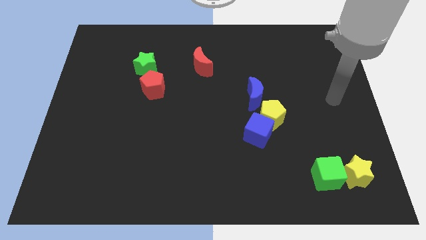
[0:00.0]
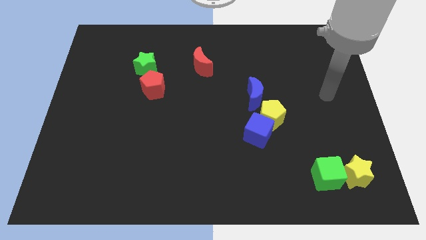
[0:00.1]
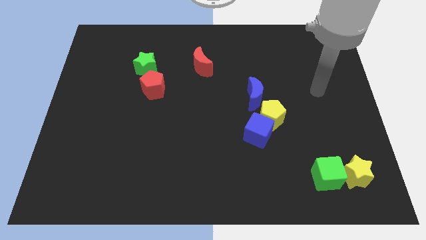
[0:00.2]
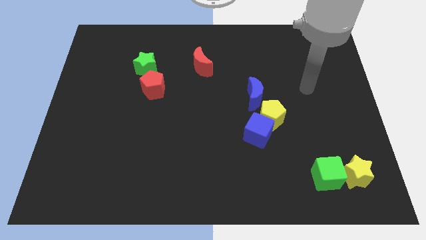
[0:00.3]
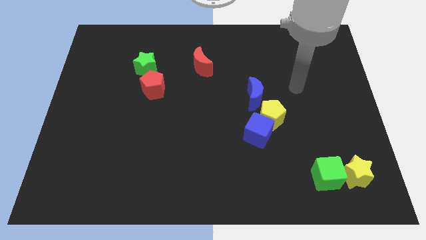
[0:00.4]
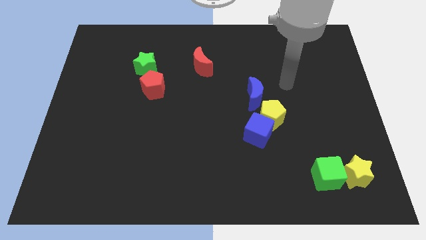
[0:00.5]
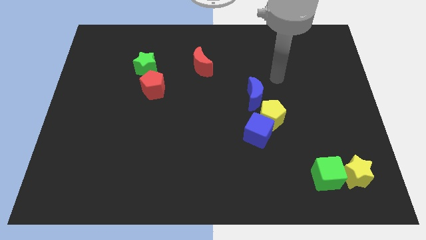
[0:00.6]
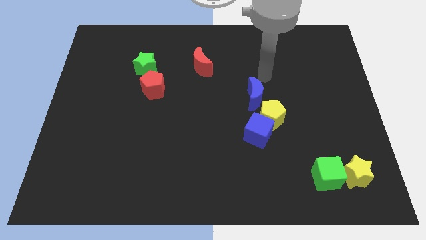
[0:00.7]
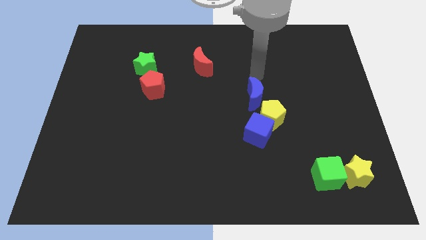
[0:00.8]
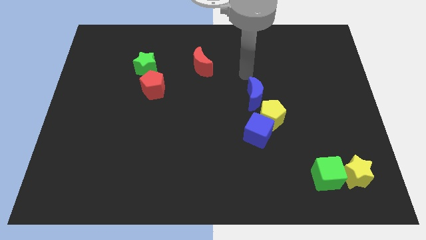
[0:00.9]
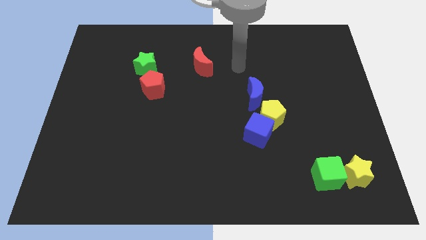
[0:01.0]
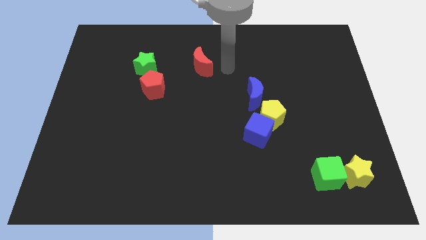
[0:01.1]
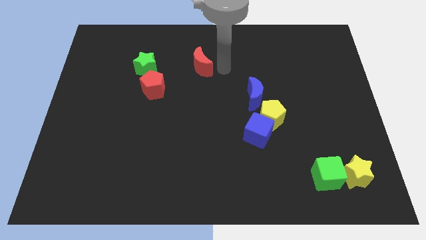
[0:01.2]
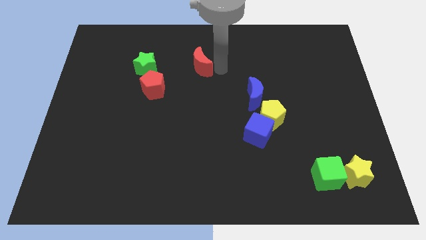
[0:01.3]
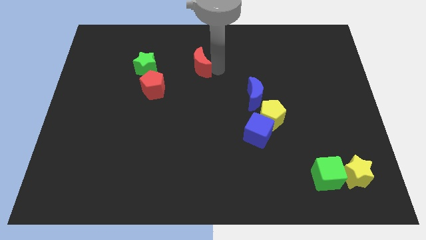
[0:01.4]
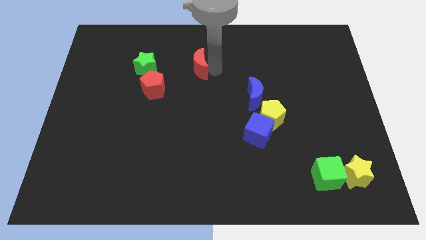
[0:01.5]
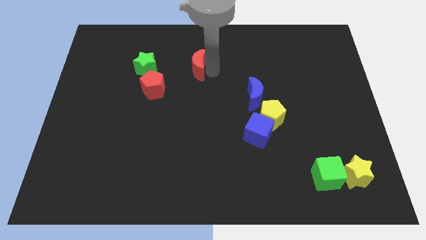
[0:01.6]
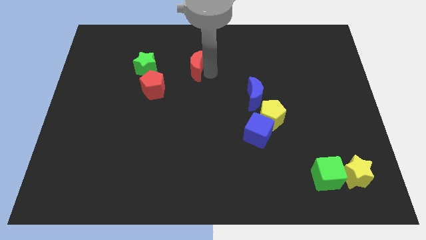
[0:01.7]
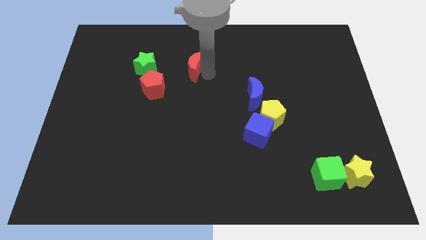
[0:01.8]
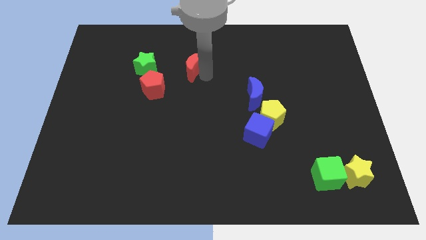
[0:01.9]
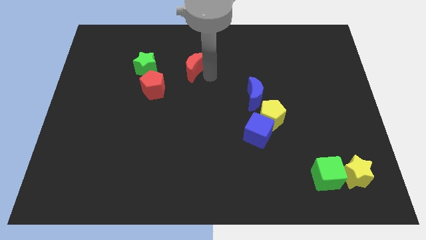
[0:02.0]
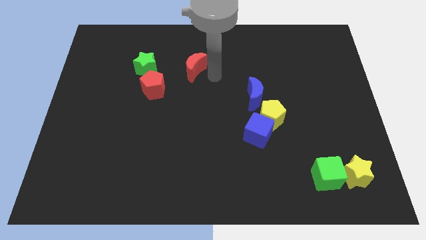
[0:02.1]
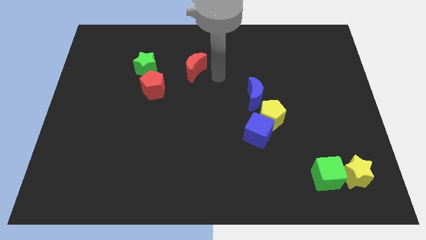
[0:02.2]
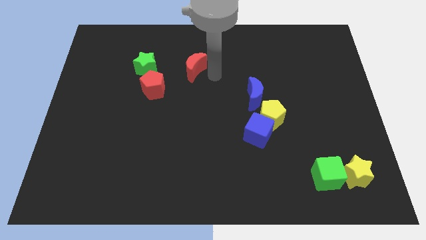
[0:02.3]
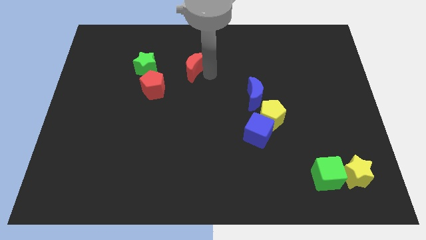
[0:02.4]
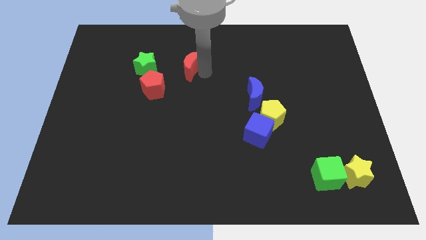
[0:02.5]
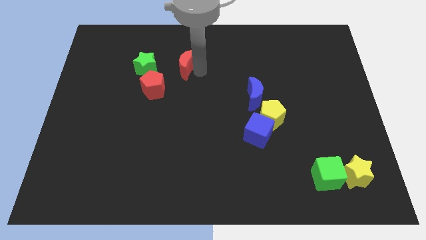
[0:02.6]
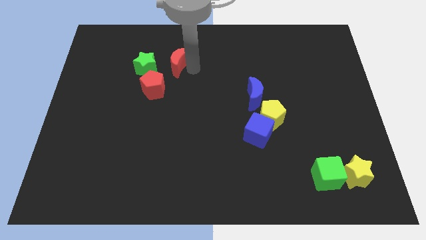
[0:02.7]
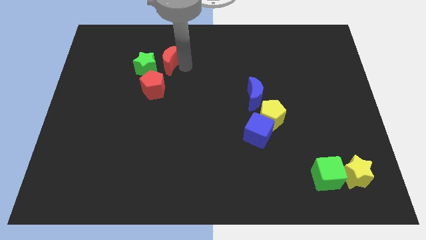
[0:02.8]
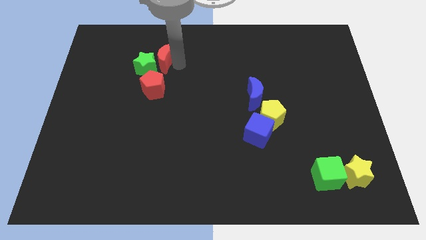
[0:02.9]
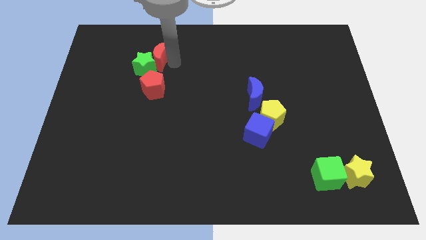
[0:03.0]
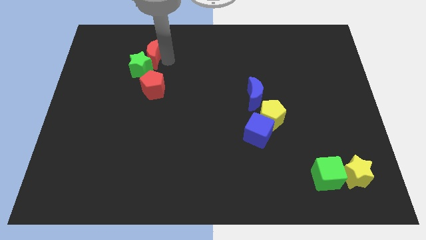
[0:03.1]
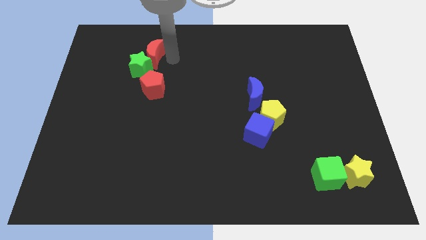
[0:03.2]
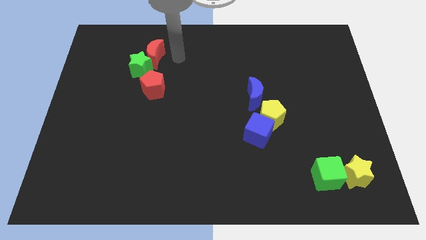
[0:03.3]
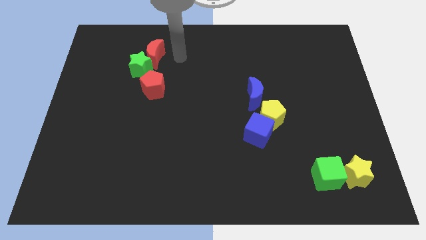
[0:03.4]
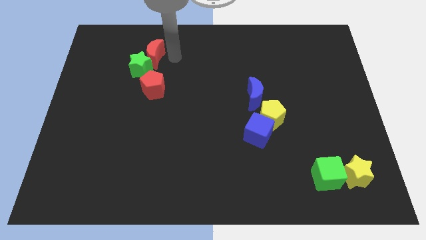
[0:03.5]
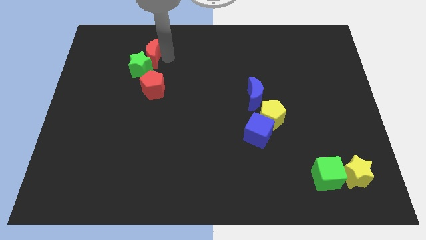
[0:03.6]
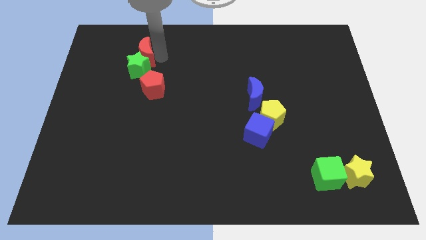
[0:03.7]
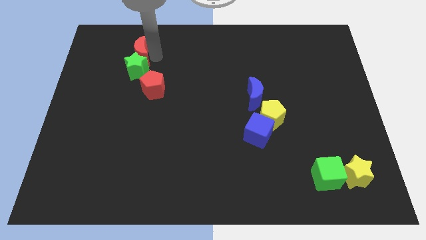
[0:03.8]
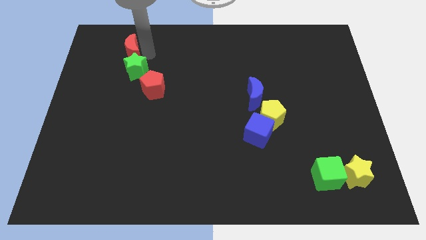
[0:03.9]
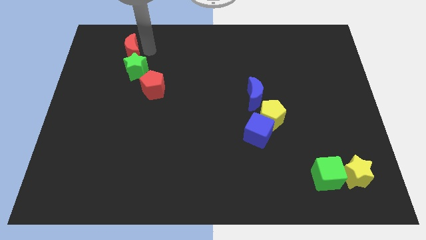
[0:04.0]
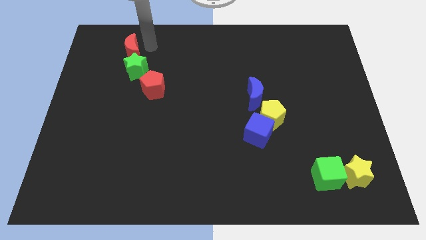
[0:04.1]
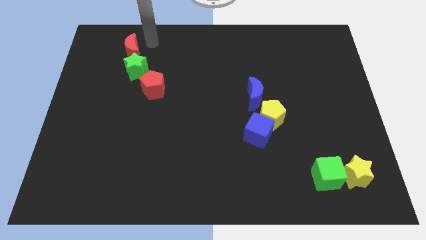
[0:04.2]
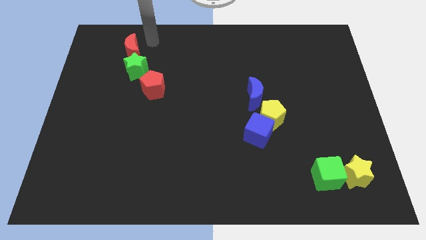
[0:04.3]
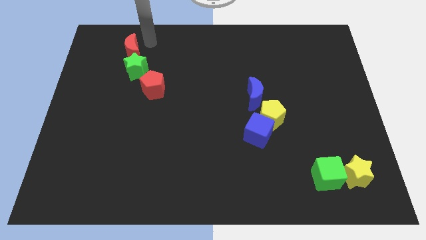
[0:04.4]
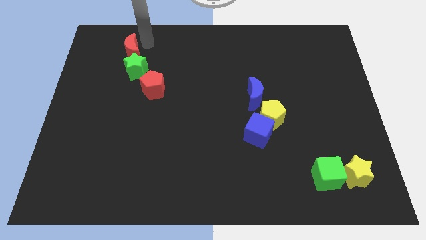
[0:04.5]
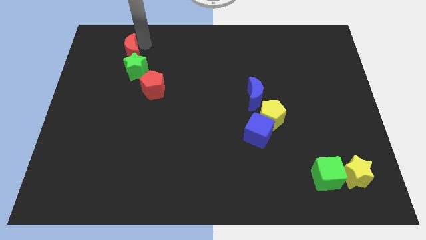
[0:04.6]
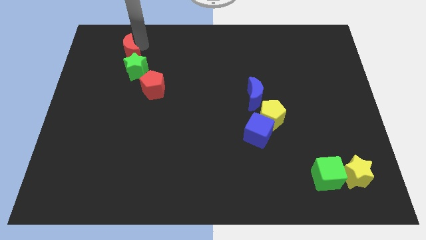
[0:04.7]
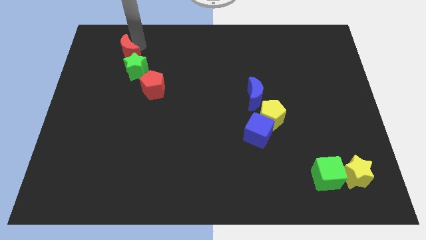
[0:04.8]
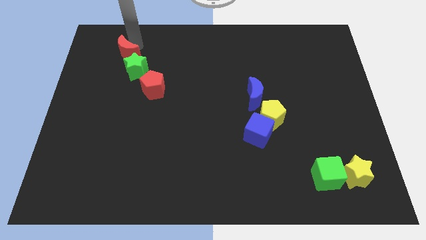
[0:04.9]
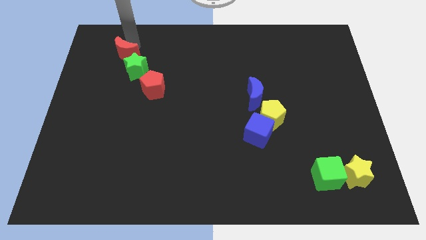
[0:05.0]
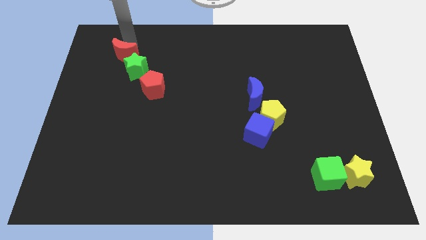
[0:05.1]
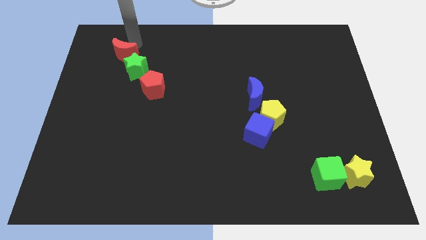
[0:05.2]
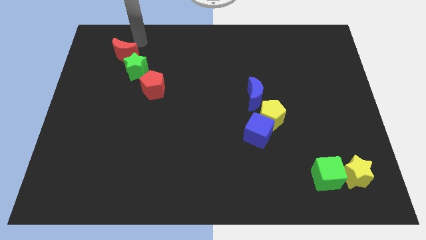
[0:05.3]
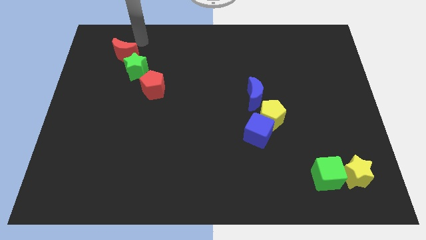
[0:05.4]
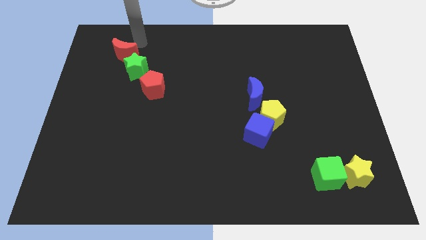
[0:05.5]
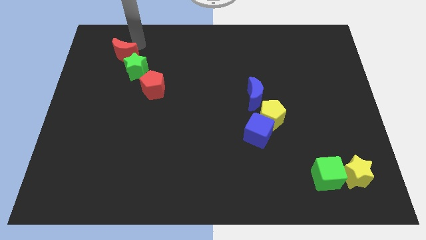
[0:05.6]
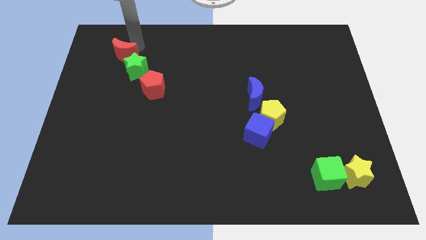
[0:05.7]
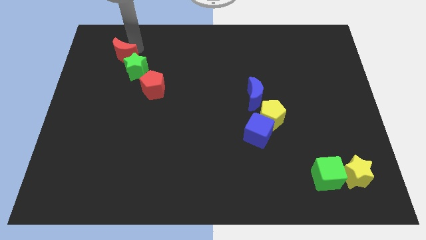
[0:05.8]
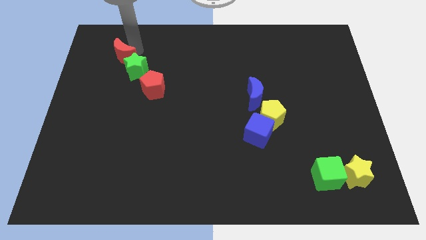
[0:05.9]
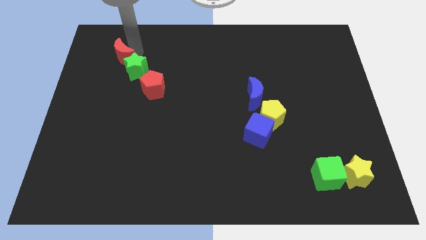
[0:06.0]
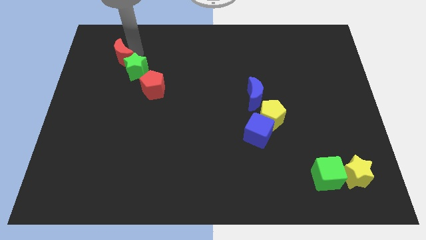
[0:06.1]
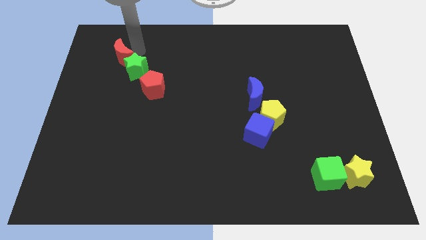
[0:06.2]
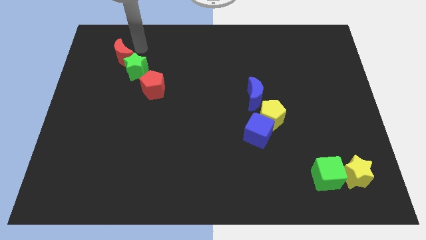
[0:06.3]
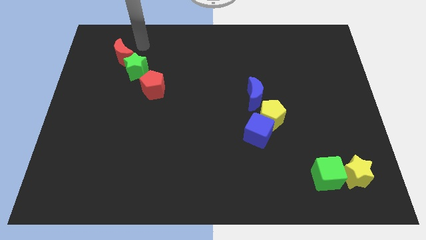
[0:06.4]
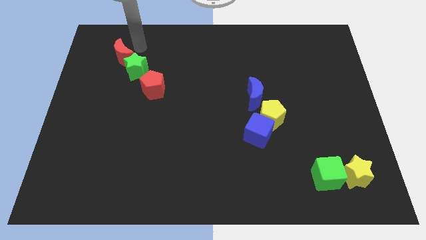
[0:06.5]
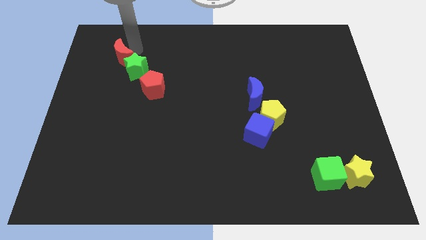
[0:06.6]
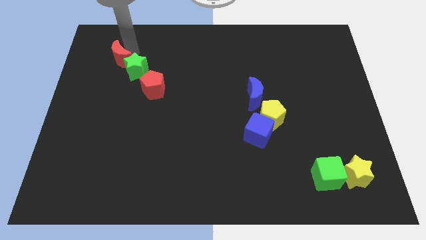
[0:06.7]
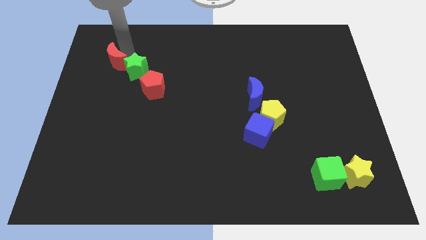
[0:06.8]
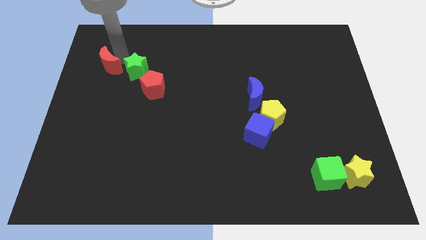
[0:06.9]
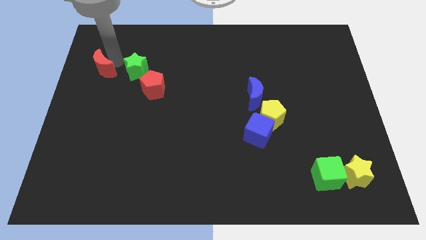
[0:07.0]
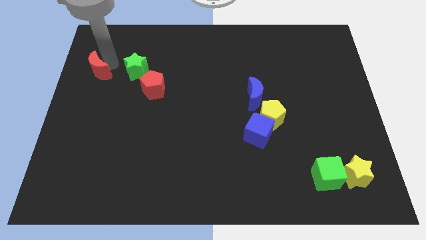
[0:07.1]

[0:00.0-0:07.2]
push the red moon to the left side of the board

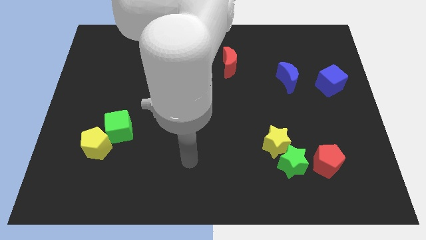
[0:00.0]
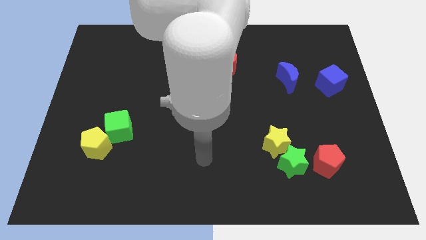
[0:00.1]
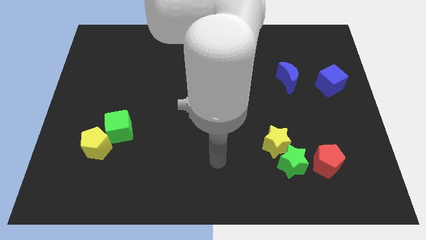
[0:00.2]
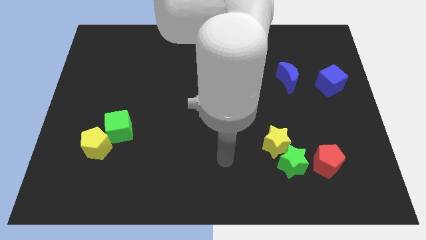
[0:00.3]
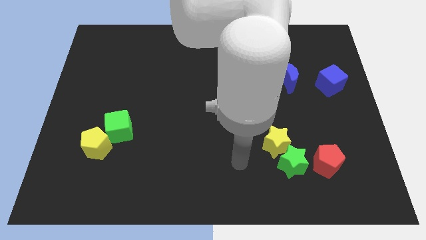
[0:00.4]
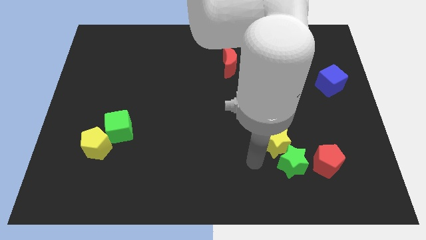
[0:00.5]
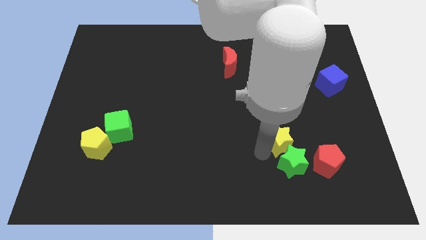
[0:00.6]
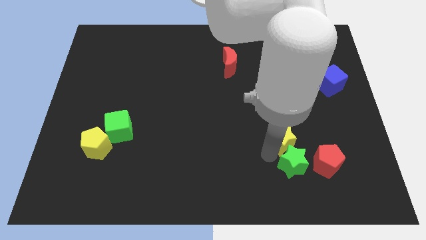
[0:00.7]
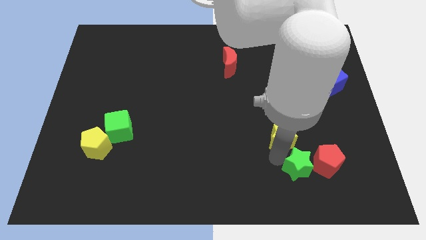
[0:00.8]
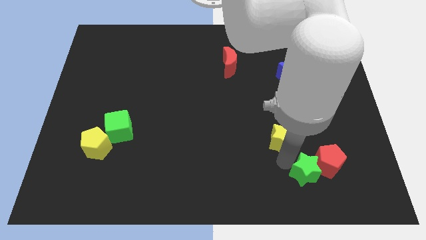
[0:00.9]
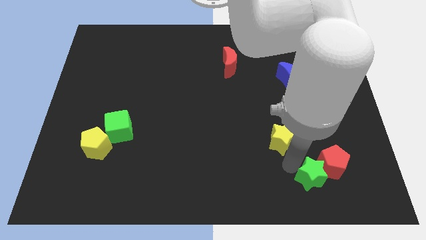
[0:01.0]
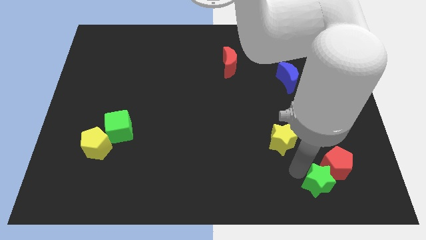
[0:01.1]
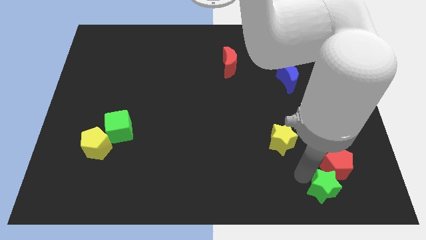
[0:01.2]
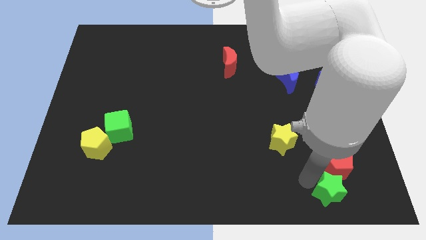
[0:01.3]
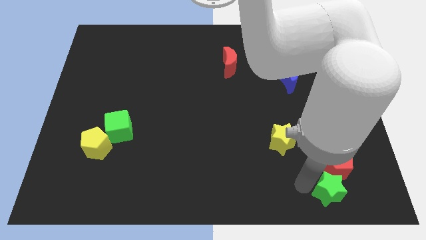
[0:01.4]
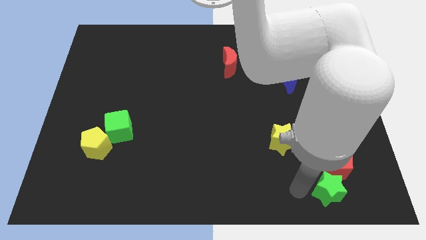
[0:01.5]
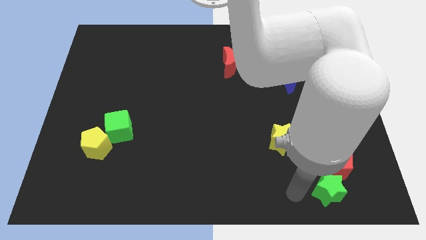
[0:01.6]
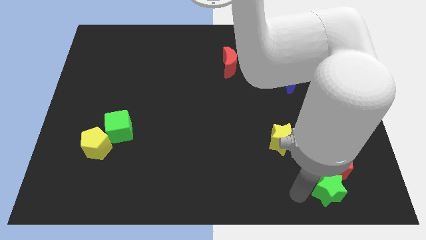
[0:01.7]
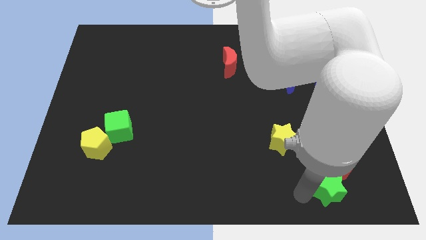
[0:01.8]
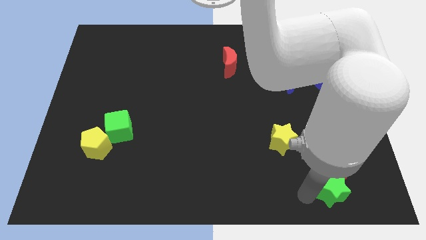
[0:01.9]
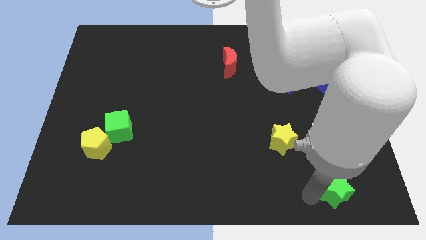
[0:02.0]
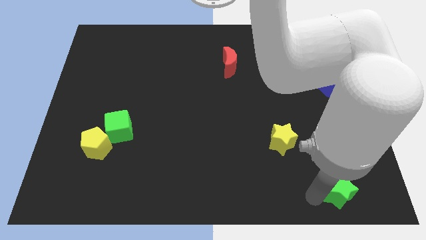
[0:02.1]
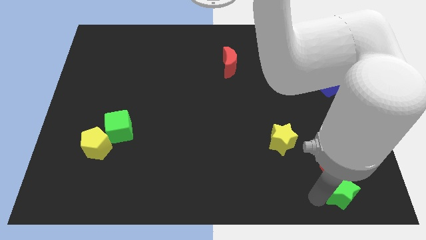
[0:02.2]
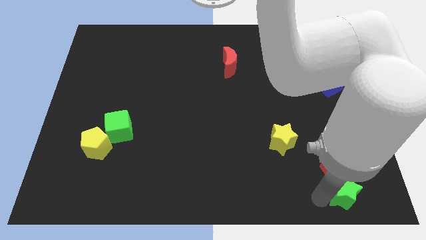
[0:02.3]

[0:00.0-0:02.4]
slide the green star to the bottom right
